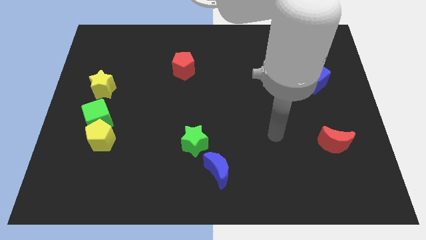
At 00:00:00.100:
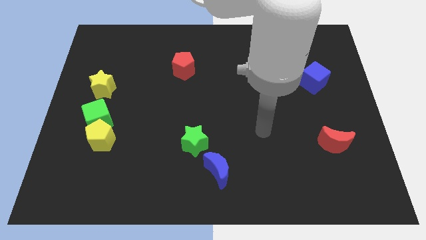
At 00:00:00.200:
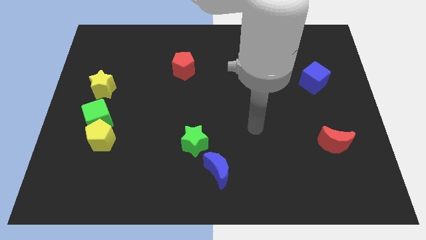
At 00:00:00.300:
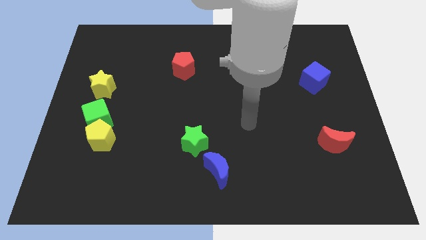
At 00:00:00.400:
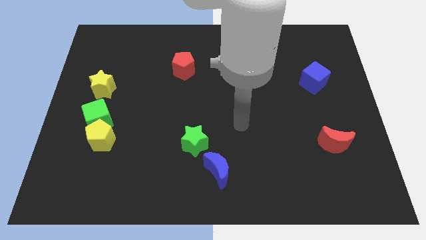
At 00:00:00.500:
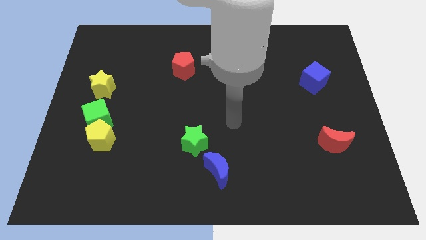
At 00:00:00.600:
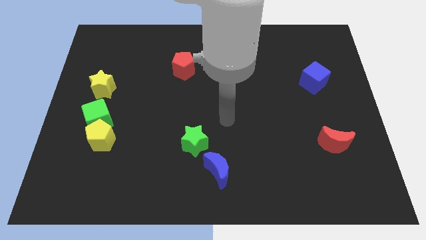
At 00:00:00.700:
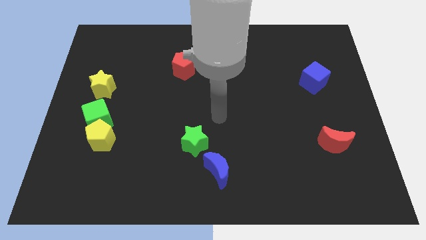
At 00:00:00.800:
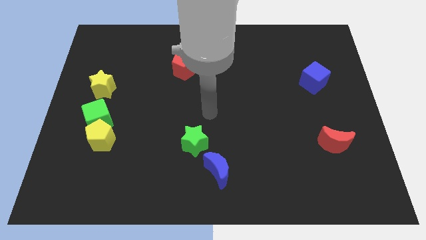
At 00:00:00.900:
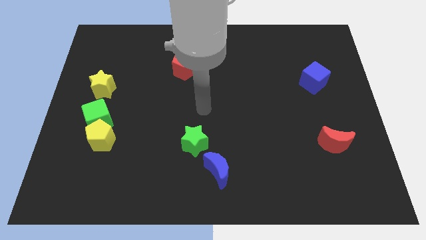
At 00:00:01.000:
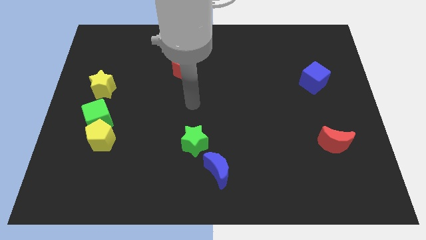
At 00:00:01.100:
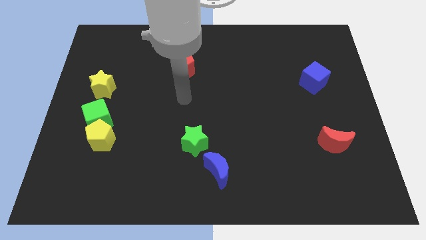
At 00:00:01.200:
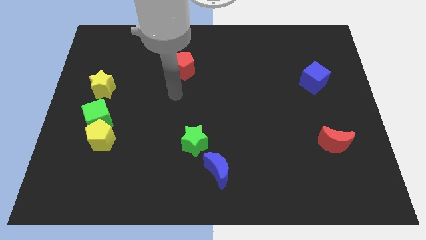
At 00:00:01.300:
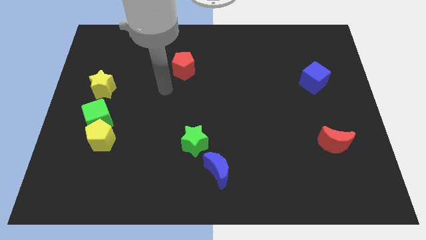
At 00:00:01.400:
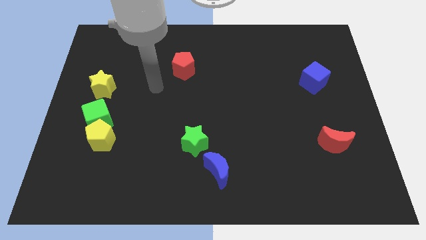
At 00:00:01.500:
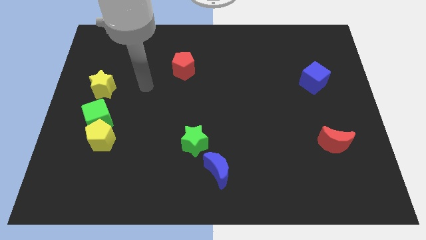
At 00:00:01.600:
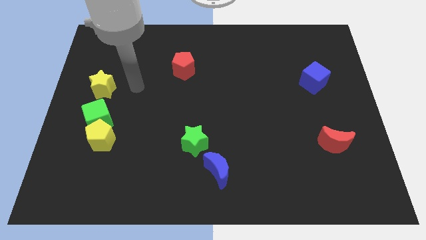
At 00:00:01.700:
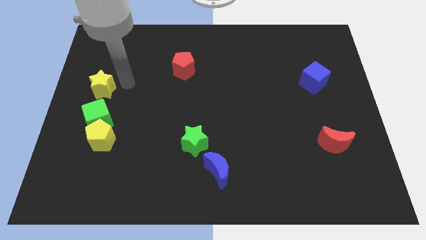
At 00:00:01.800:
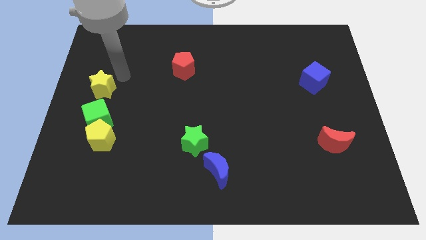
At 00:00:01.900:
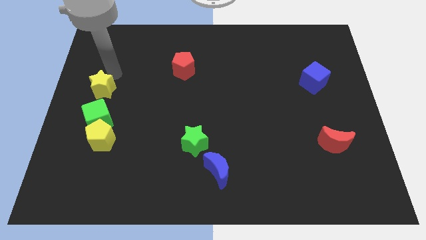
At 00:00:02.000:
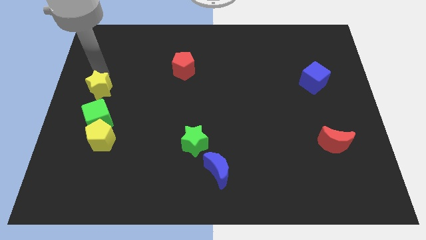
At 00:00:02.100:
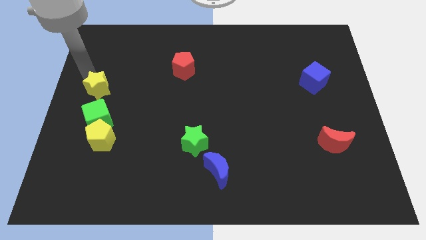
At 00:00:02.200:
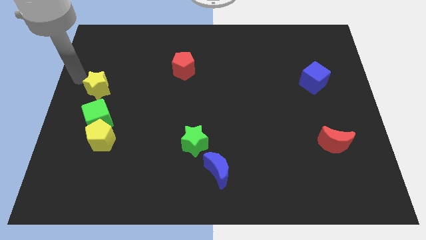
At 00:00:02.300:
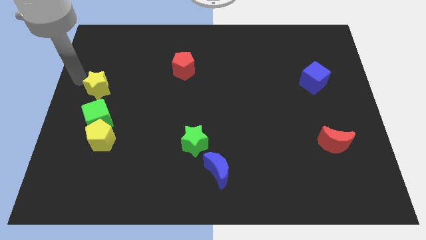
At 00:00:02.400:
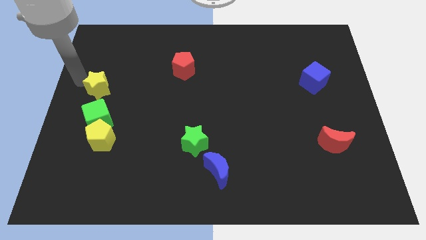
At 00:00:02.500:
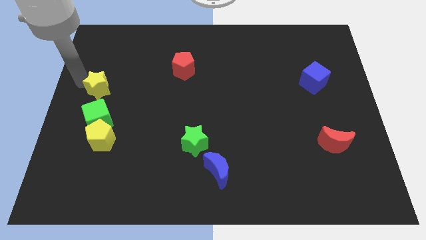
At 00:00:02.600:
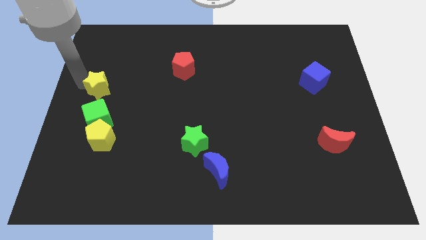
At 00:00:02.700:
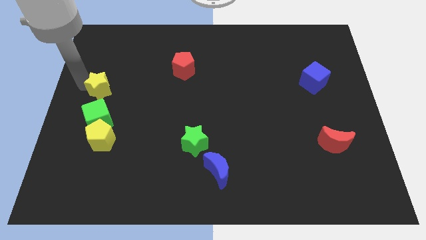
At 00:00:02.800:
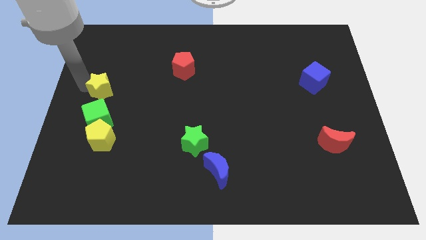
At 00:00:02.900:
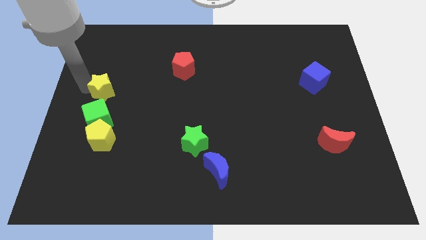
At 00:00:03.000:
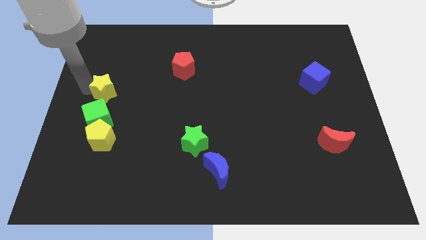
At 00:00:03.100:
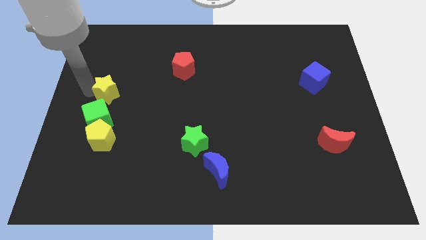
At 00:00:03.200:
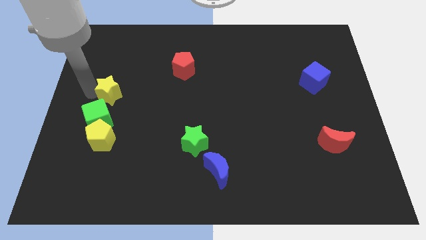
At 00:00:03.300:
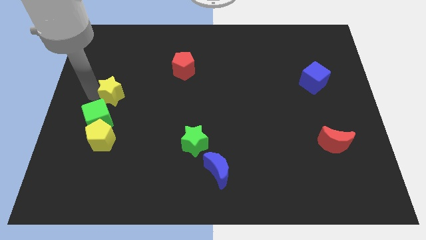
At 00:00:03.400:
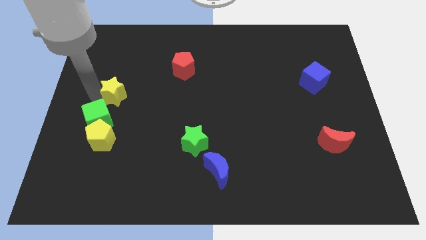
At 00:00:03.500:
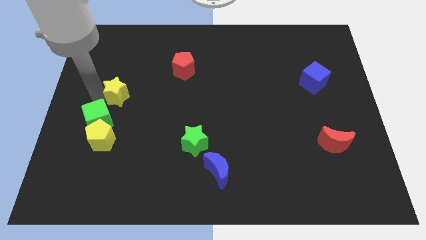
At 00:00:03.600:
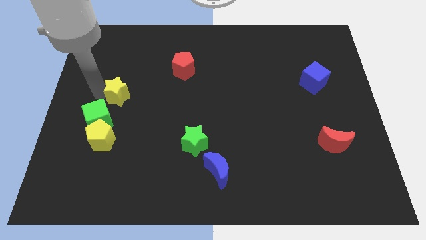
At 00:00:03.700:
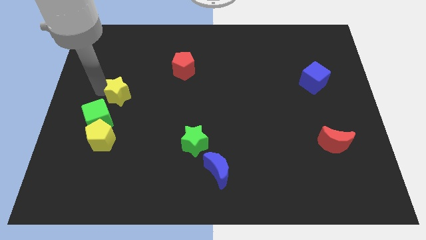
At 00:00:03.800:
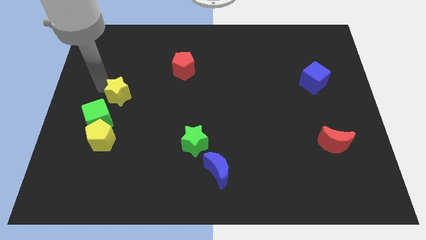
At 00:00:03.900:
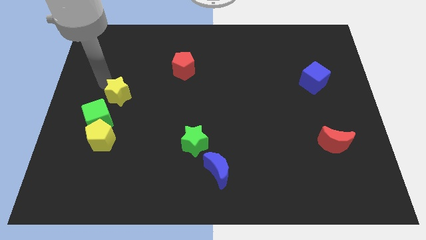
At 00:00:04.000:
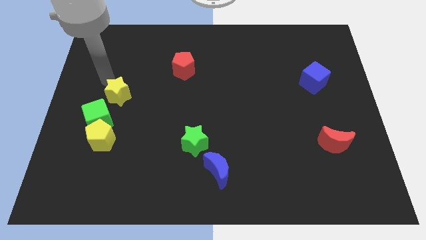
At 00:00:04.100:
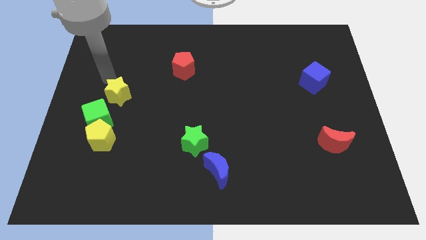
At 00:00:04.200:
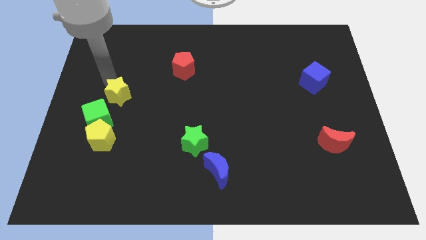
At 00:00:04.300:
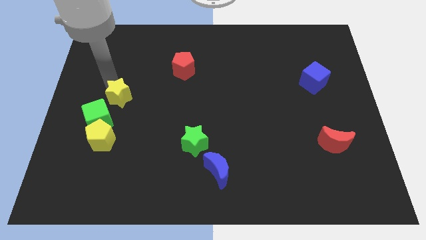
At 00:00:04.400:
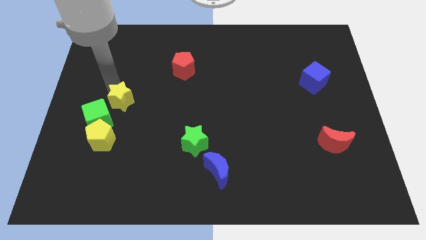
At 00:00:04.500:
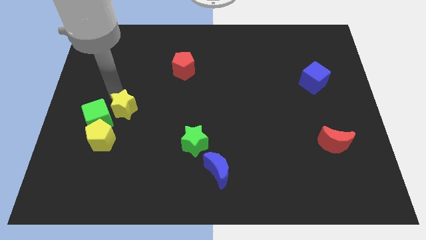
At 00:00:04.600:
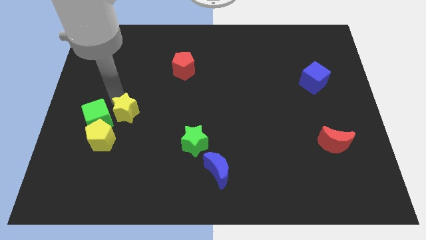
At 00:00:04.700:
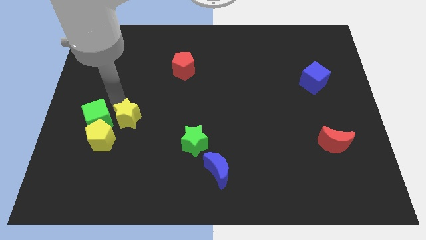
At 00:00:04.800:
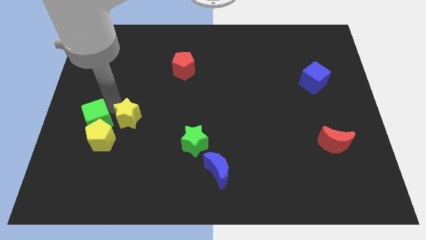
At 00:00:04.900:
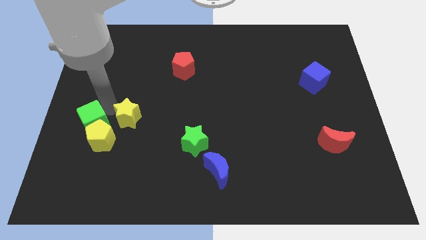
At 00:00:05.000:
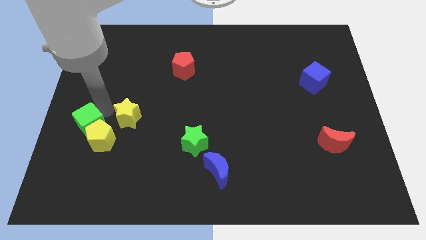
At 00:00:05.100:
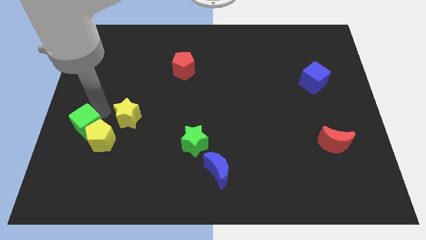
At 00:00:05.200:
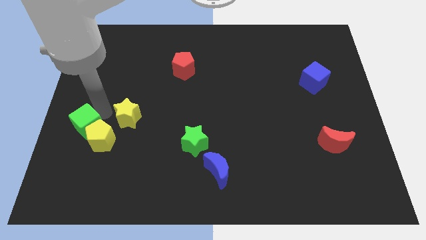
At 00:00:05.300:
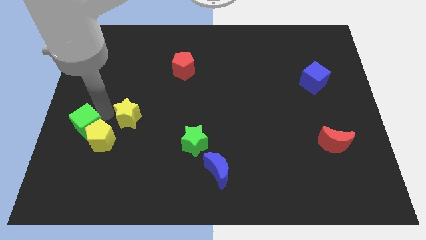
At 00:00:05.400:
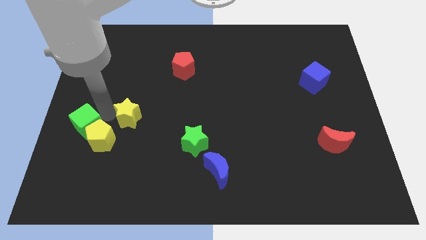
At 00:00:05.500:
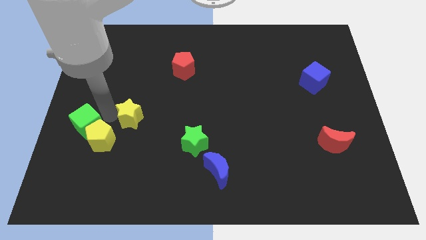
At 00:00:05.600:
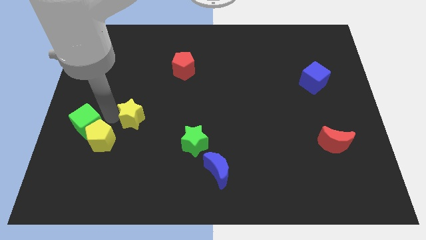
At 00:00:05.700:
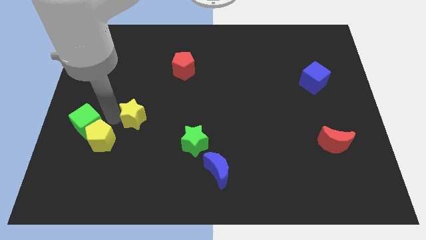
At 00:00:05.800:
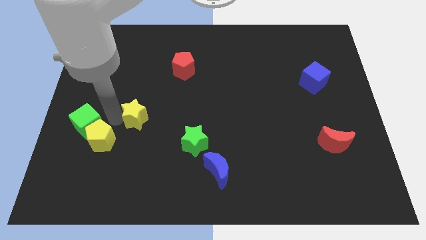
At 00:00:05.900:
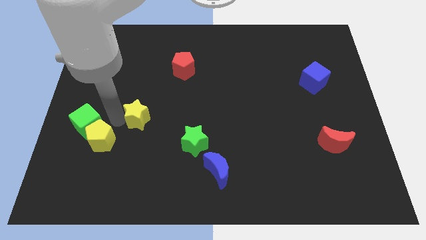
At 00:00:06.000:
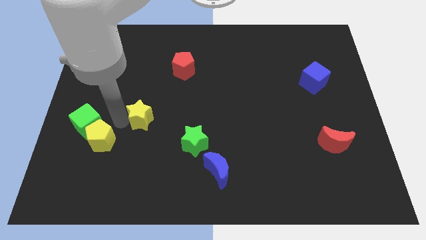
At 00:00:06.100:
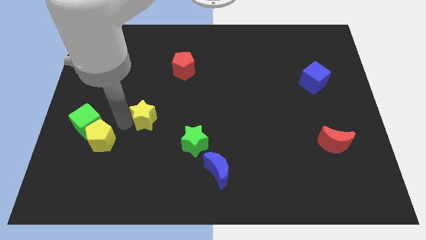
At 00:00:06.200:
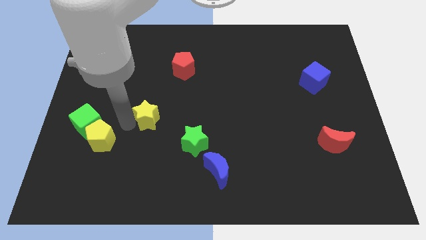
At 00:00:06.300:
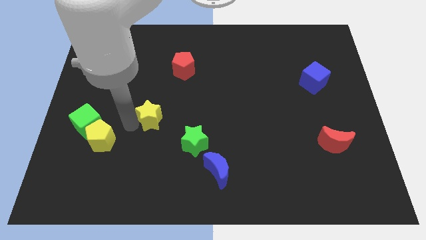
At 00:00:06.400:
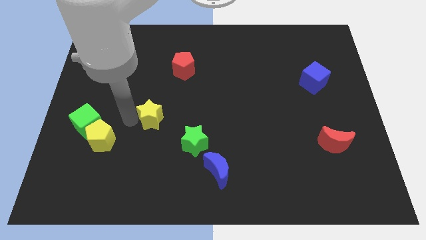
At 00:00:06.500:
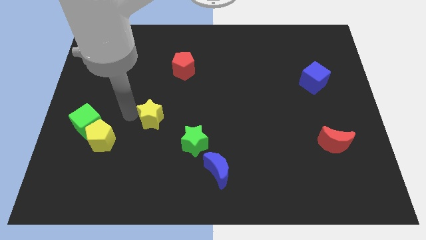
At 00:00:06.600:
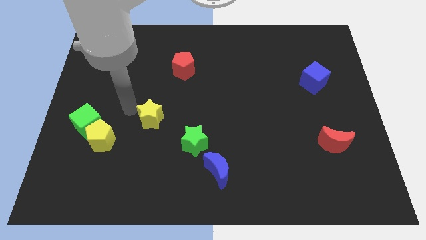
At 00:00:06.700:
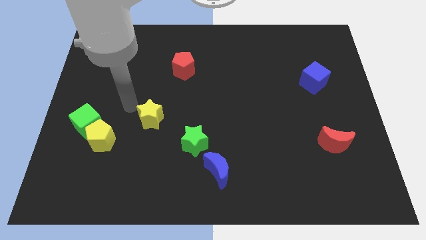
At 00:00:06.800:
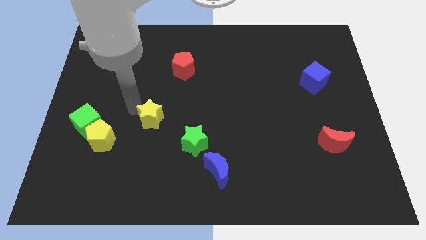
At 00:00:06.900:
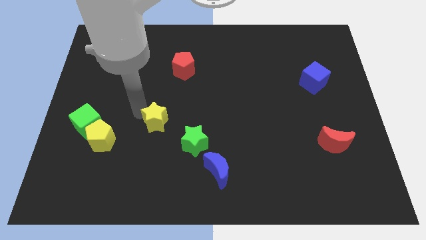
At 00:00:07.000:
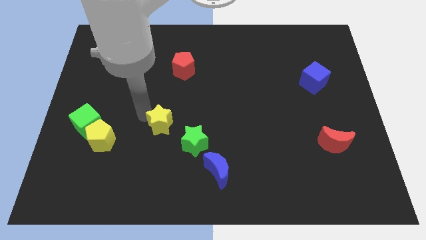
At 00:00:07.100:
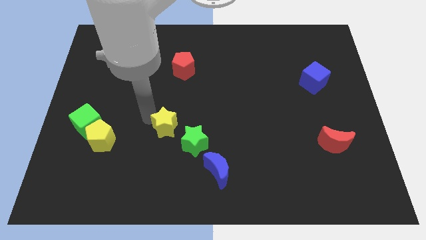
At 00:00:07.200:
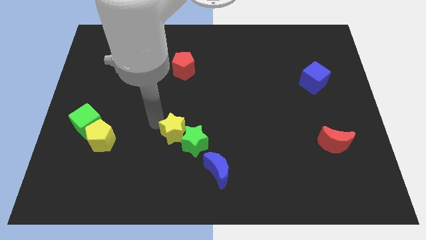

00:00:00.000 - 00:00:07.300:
push the yellow star to the green star
